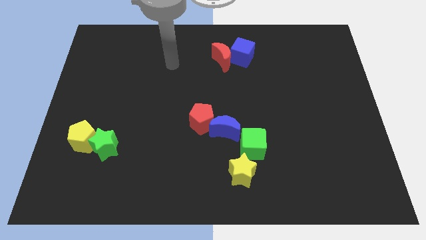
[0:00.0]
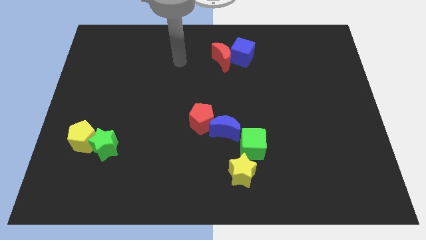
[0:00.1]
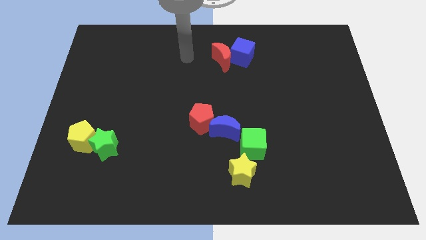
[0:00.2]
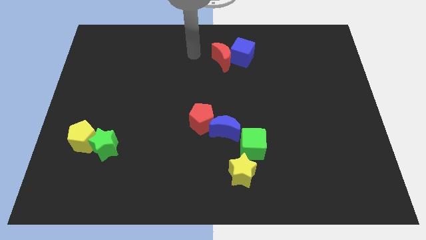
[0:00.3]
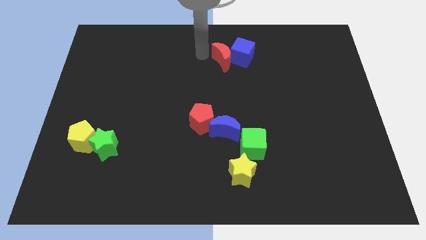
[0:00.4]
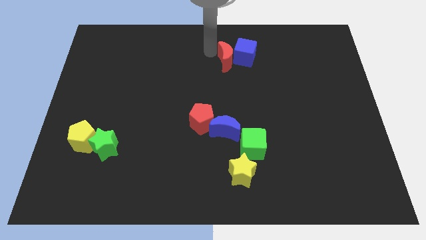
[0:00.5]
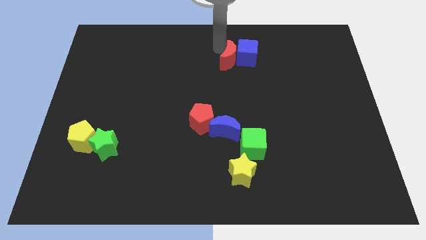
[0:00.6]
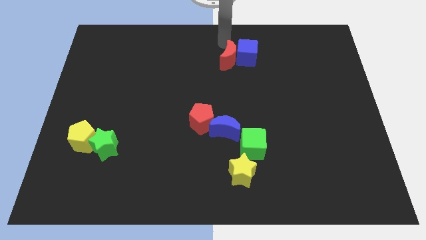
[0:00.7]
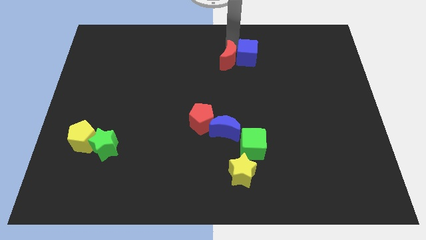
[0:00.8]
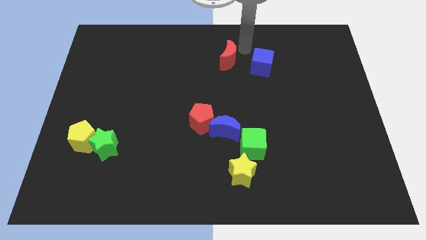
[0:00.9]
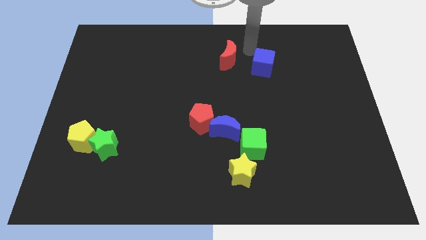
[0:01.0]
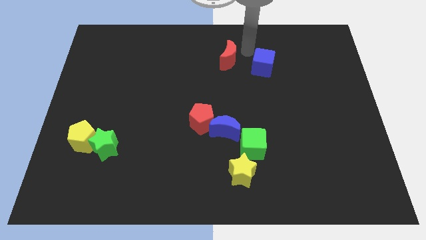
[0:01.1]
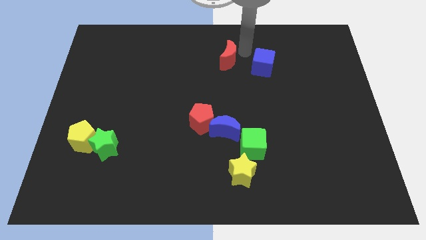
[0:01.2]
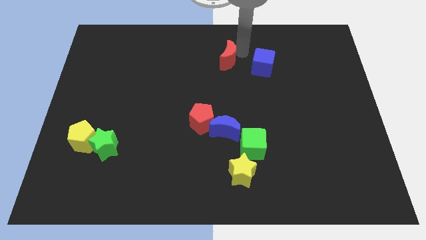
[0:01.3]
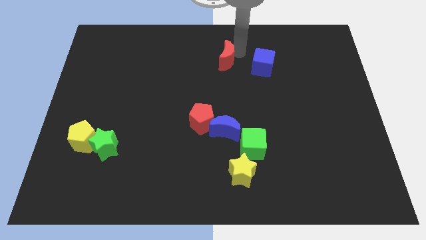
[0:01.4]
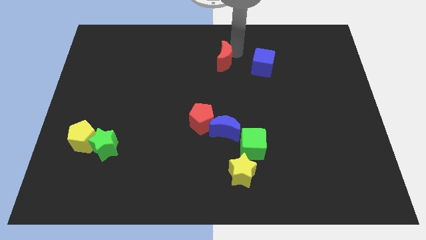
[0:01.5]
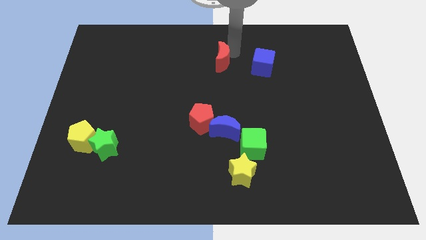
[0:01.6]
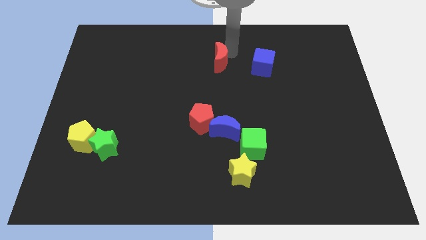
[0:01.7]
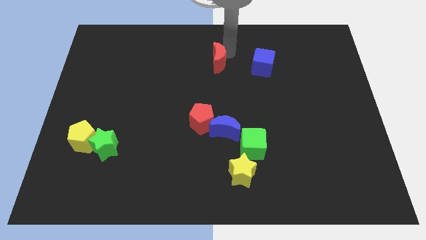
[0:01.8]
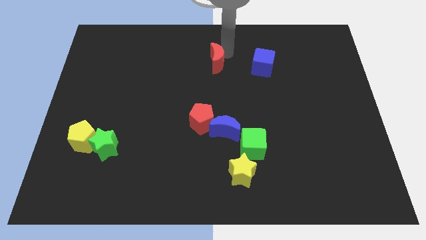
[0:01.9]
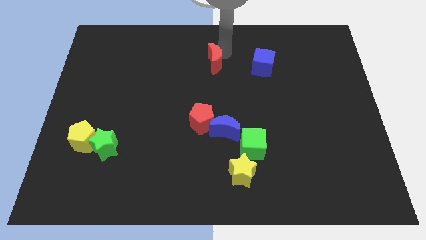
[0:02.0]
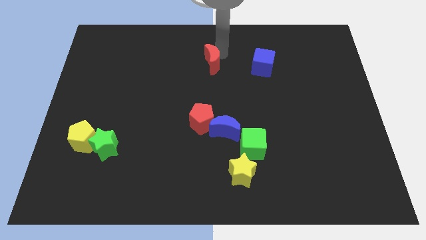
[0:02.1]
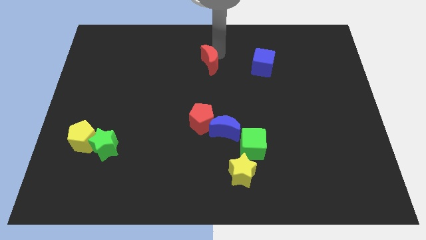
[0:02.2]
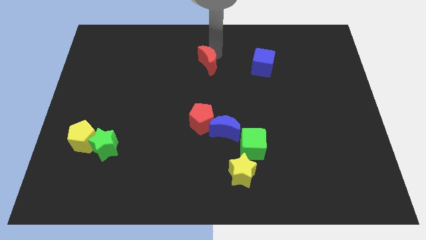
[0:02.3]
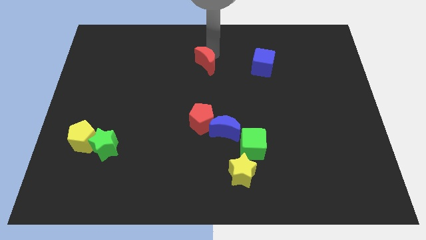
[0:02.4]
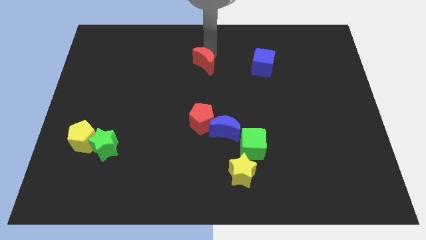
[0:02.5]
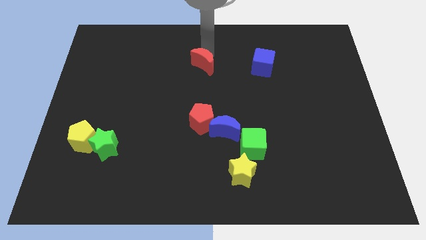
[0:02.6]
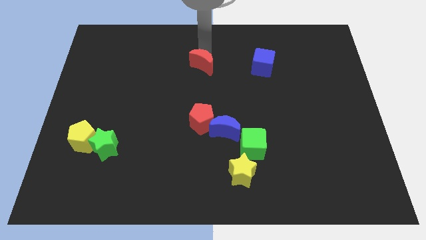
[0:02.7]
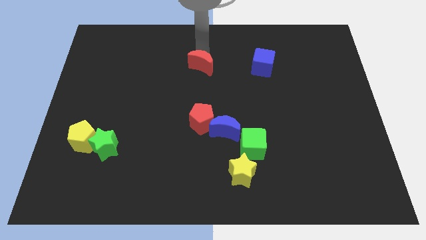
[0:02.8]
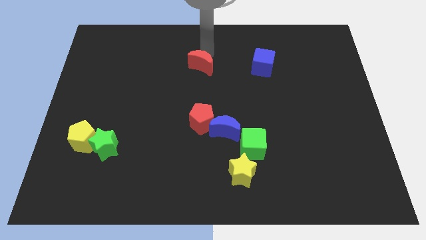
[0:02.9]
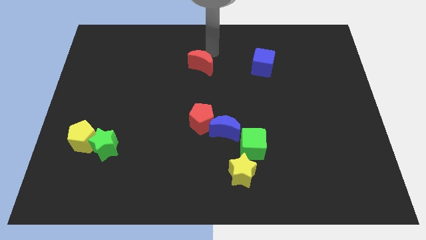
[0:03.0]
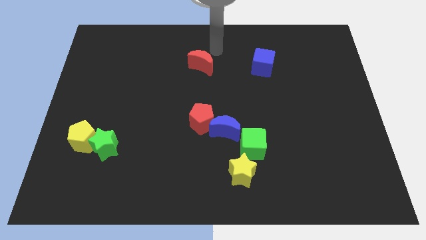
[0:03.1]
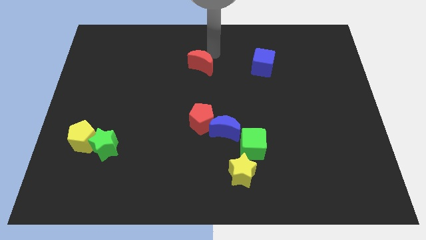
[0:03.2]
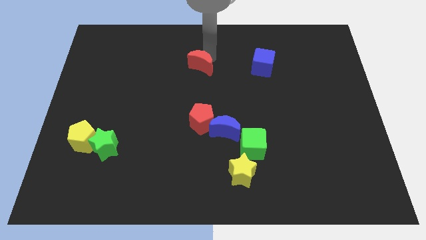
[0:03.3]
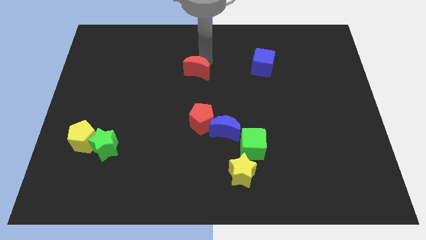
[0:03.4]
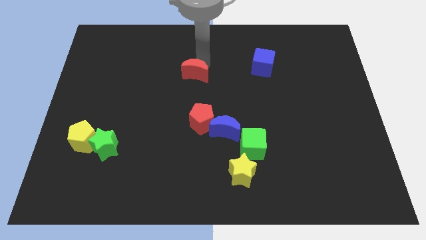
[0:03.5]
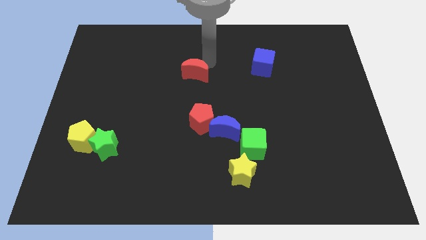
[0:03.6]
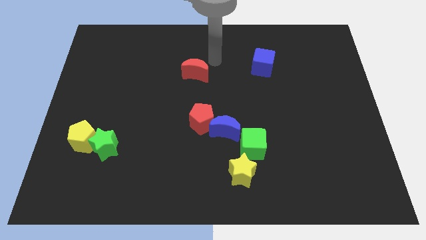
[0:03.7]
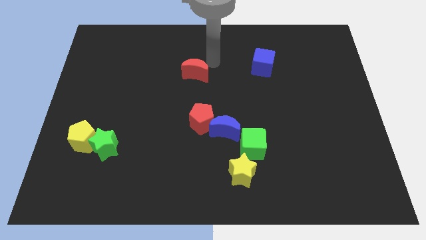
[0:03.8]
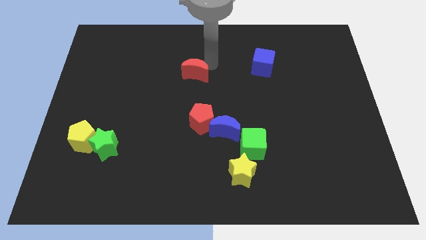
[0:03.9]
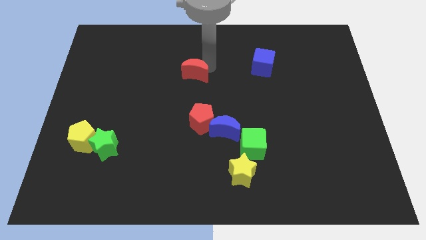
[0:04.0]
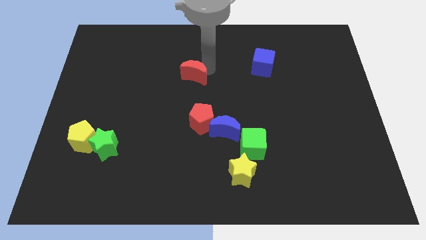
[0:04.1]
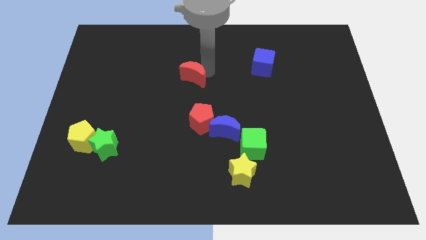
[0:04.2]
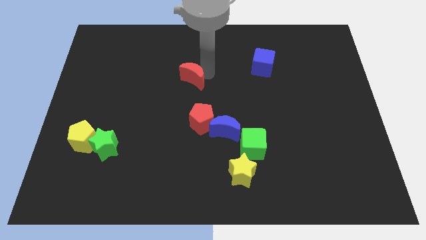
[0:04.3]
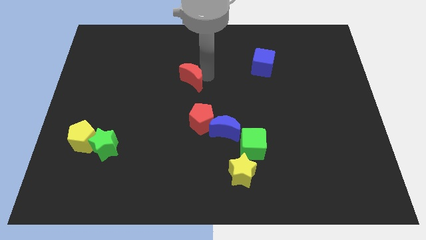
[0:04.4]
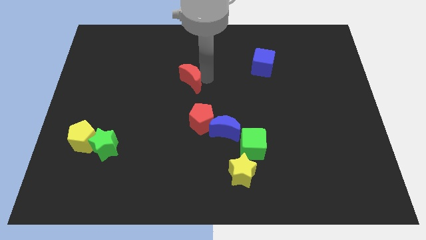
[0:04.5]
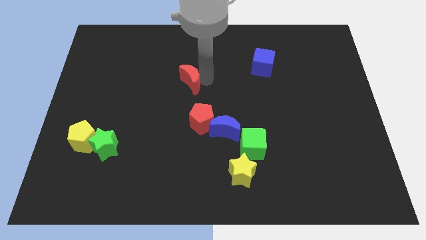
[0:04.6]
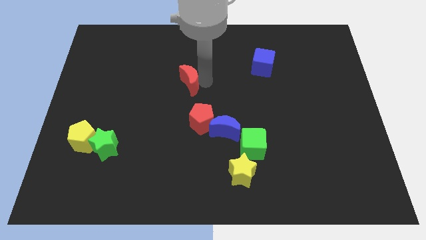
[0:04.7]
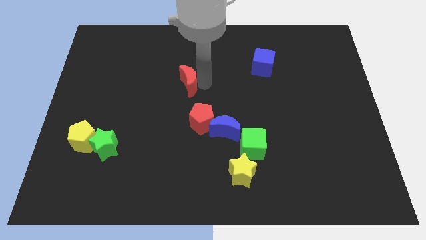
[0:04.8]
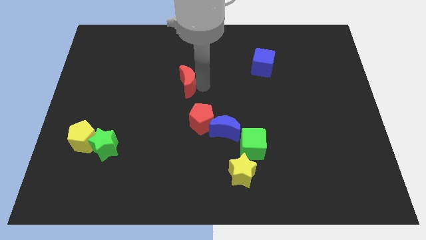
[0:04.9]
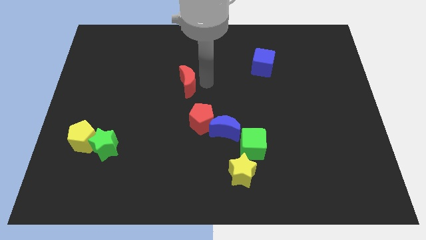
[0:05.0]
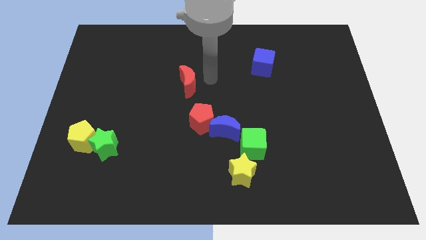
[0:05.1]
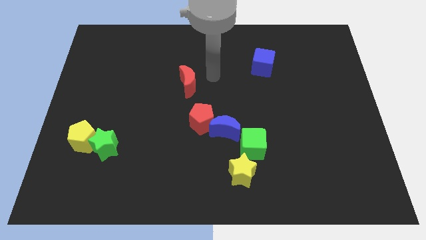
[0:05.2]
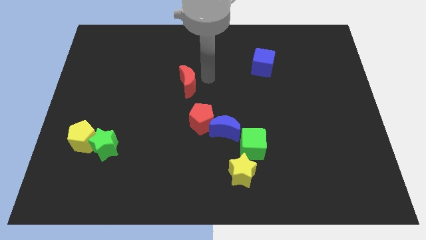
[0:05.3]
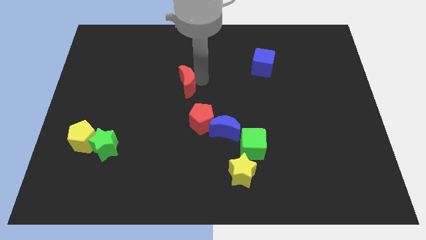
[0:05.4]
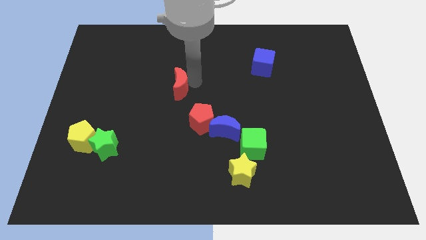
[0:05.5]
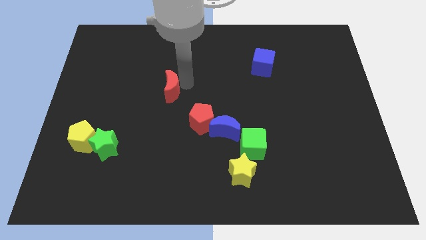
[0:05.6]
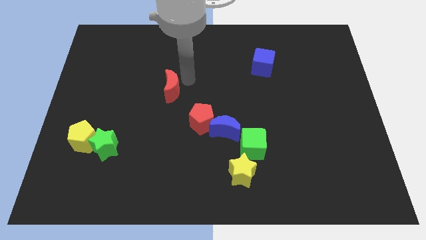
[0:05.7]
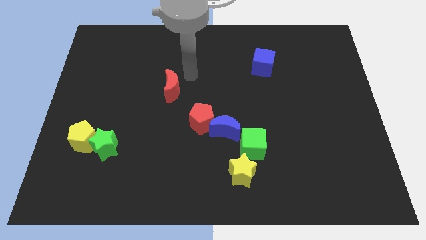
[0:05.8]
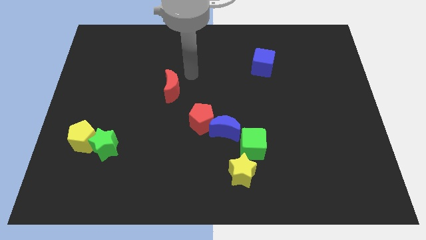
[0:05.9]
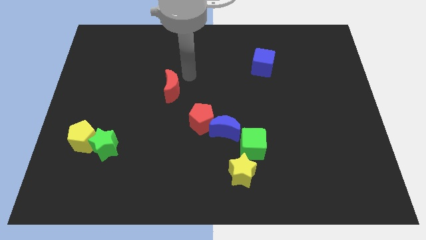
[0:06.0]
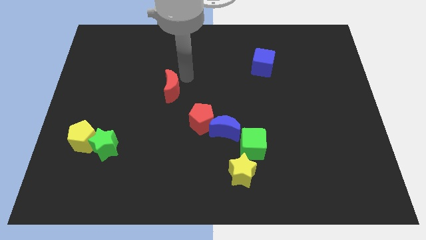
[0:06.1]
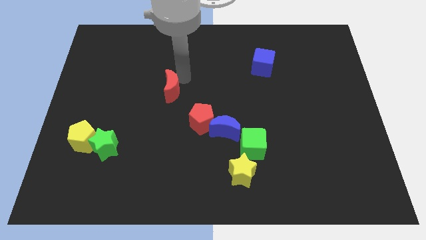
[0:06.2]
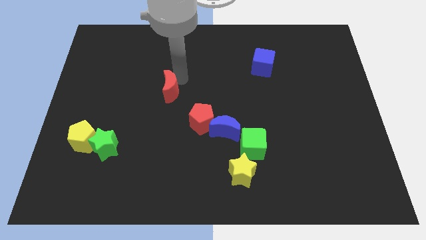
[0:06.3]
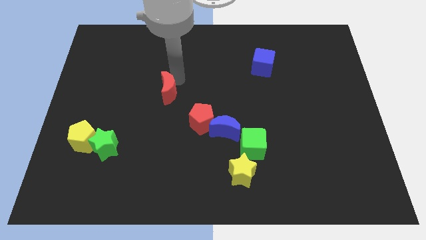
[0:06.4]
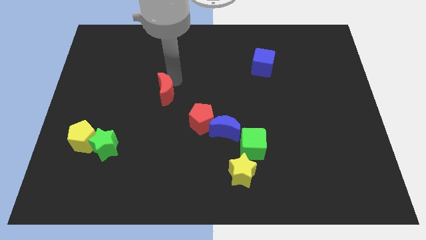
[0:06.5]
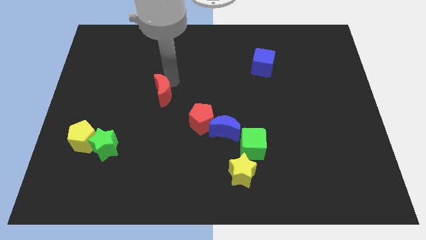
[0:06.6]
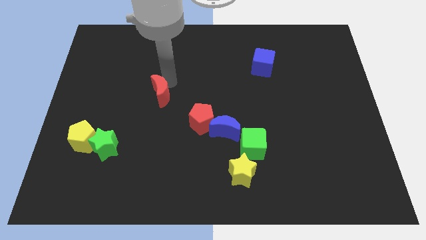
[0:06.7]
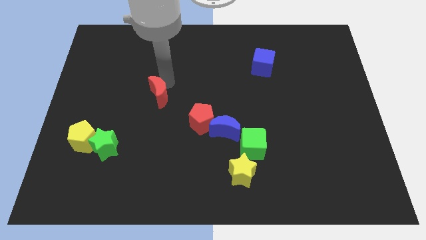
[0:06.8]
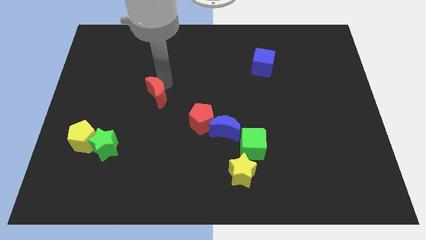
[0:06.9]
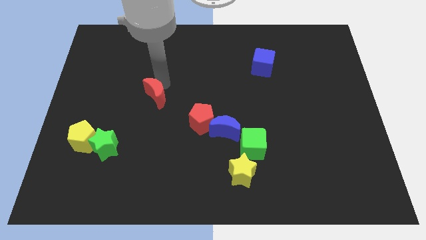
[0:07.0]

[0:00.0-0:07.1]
move the red moon downwards and then left

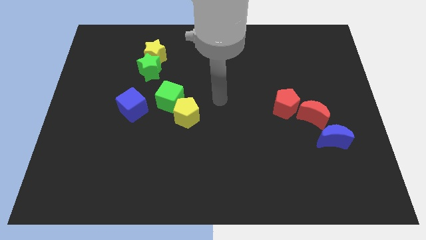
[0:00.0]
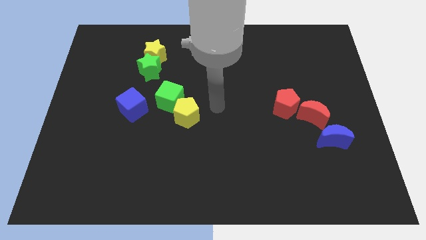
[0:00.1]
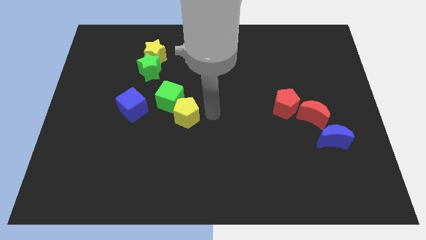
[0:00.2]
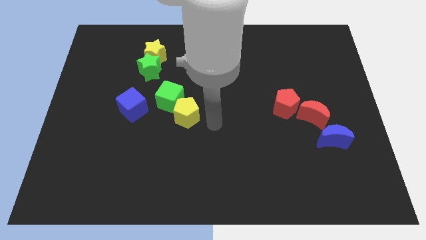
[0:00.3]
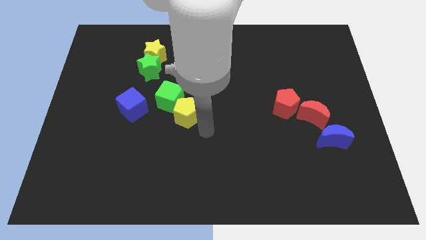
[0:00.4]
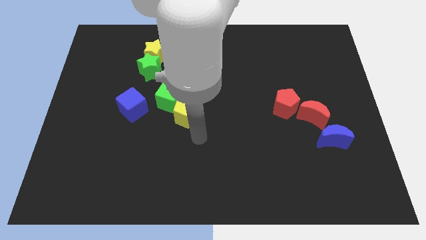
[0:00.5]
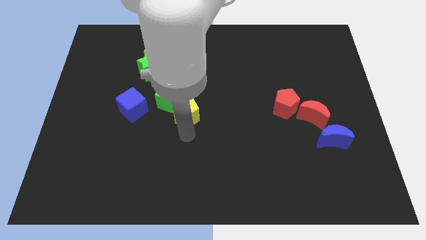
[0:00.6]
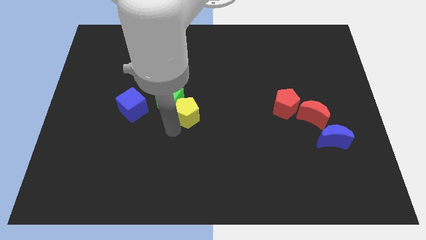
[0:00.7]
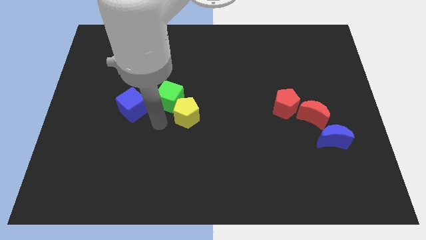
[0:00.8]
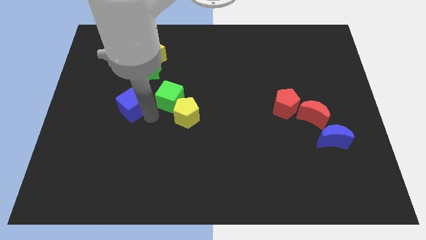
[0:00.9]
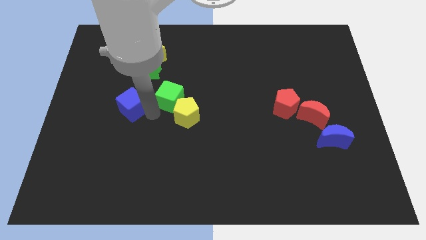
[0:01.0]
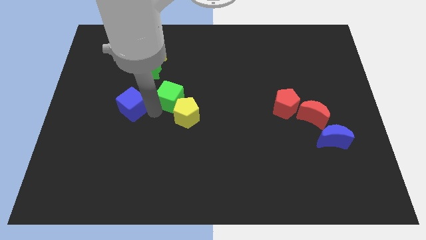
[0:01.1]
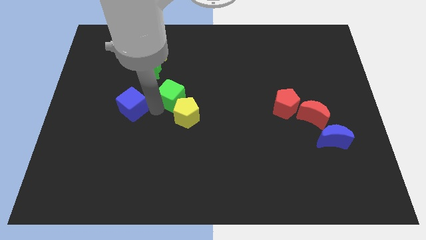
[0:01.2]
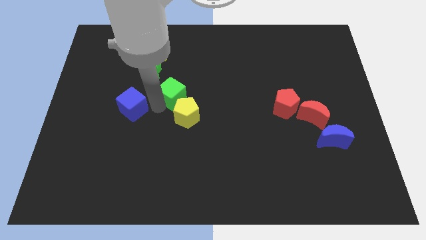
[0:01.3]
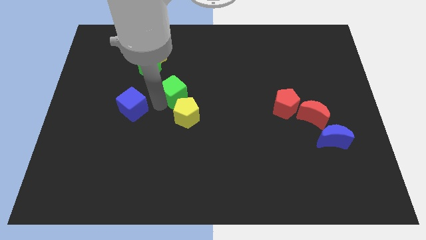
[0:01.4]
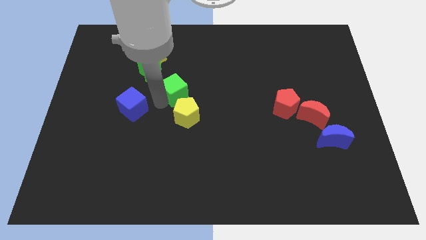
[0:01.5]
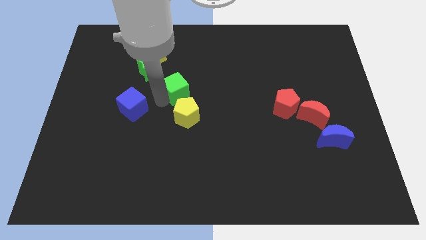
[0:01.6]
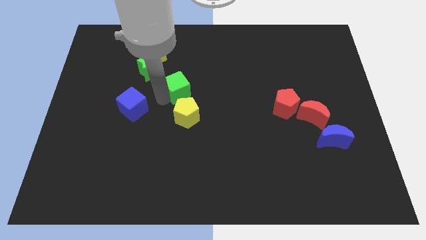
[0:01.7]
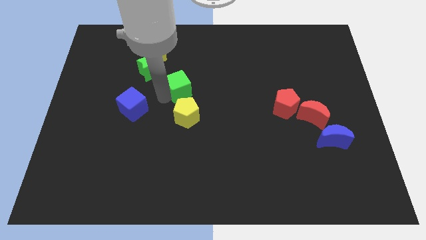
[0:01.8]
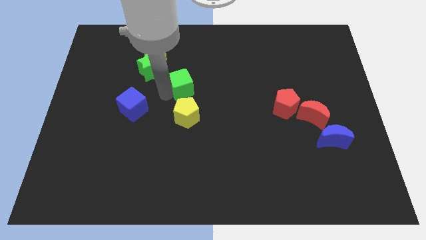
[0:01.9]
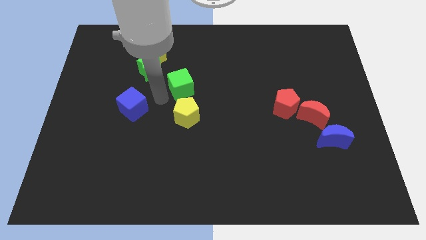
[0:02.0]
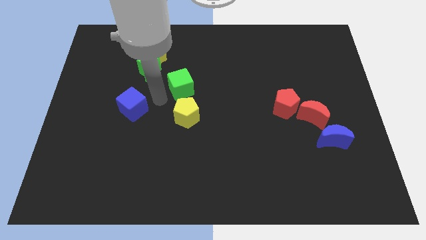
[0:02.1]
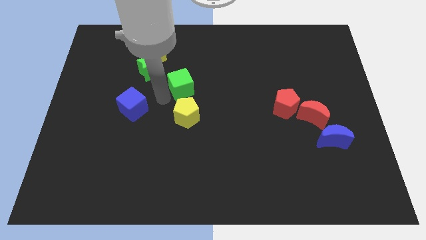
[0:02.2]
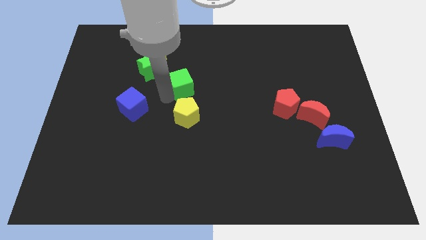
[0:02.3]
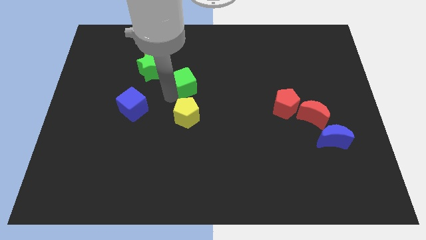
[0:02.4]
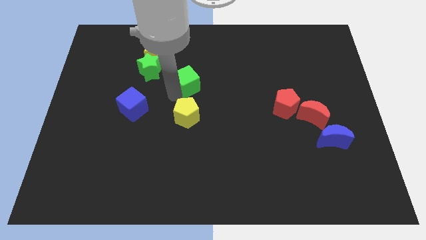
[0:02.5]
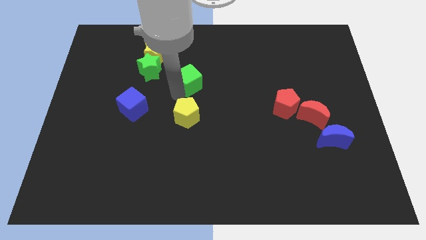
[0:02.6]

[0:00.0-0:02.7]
slightly slide the green cube upwards and then to the right
